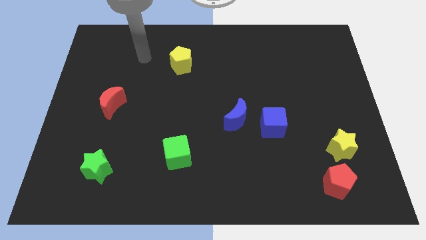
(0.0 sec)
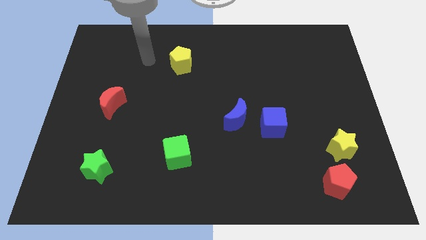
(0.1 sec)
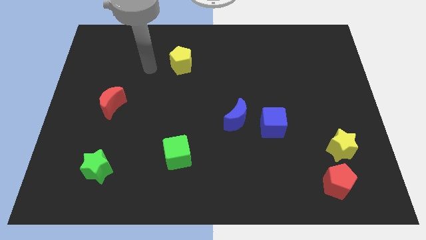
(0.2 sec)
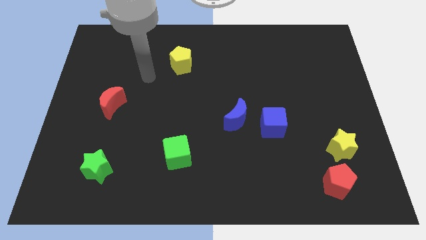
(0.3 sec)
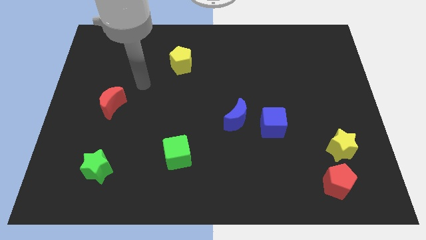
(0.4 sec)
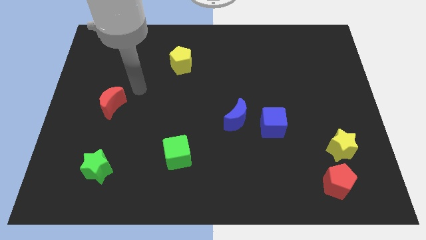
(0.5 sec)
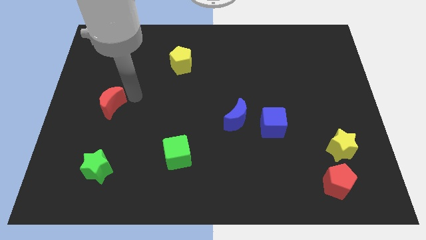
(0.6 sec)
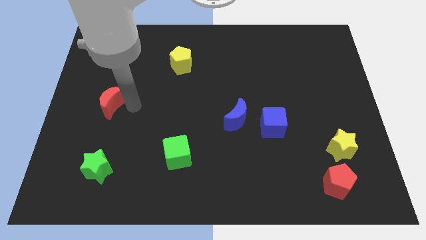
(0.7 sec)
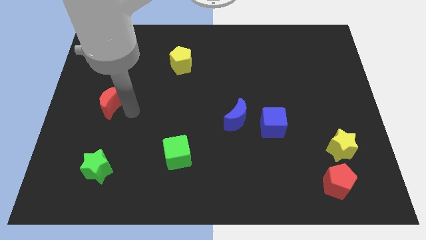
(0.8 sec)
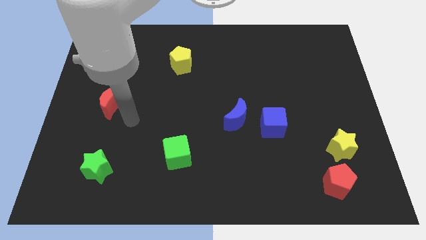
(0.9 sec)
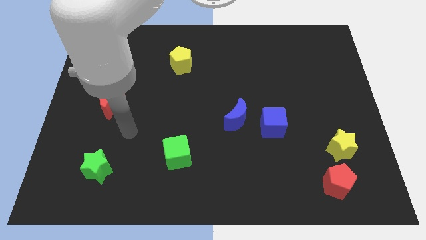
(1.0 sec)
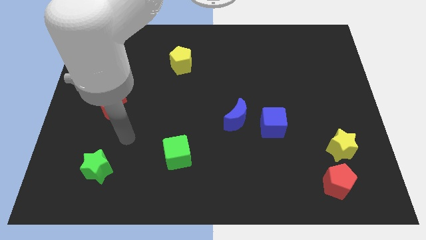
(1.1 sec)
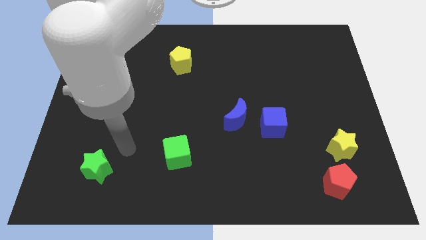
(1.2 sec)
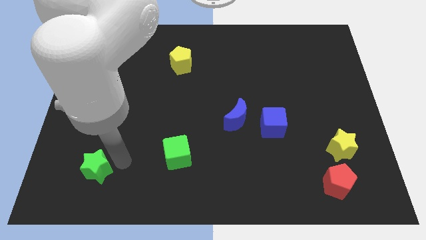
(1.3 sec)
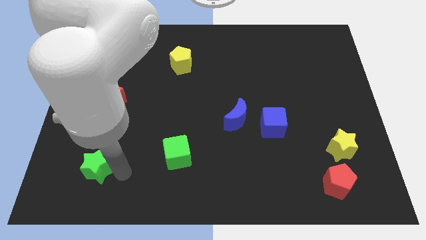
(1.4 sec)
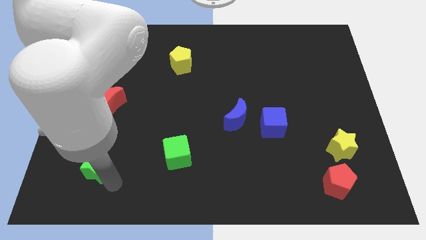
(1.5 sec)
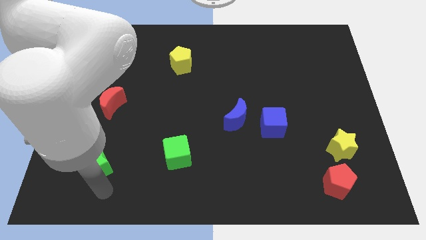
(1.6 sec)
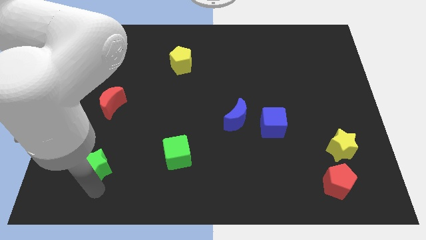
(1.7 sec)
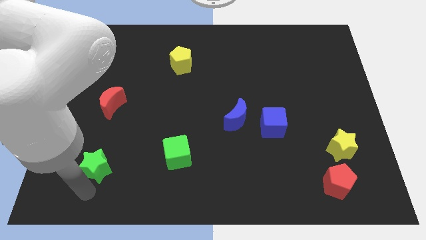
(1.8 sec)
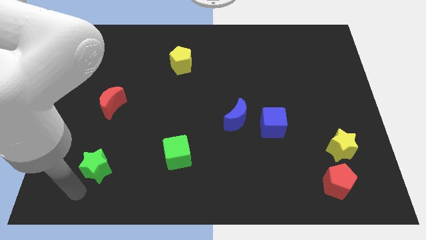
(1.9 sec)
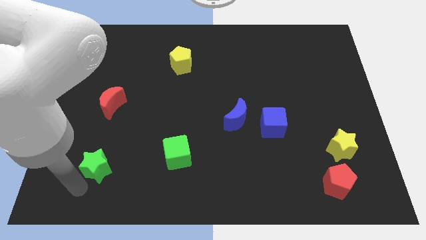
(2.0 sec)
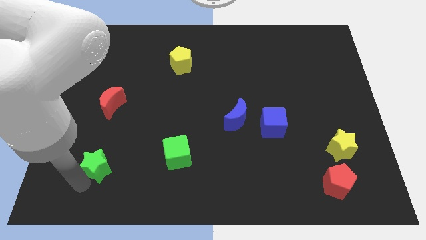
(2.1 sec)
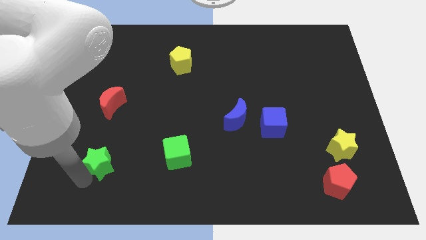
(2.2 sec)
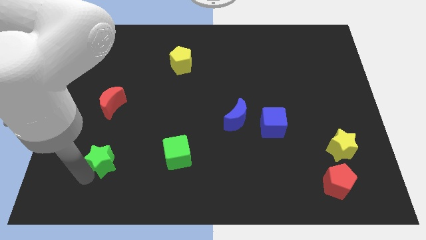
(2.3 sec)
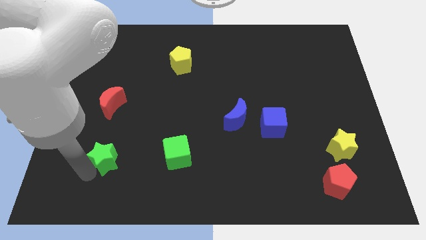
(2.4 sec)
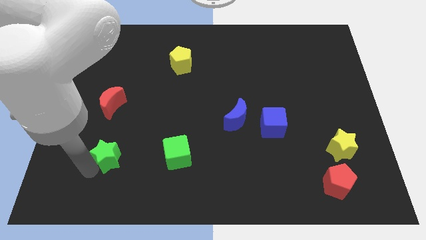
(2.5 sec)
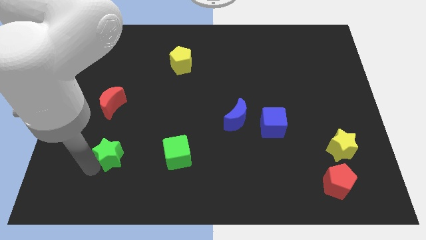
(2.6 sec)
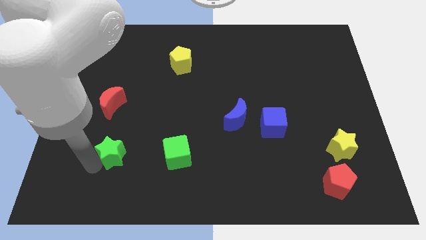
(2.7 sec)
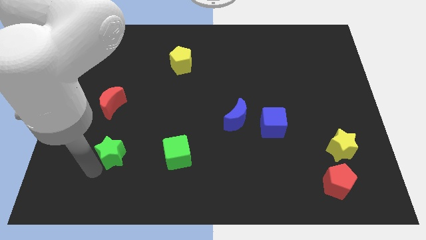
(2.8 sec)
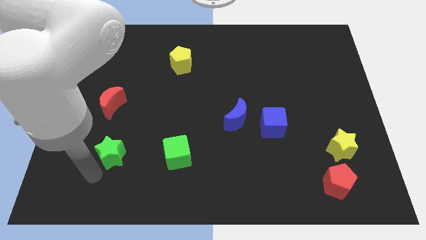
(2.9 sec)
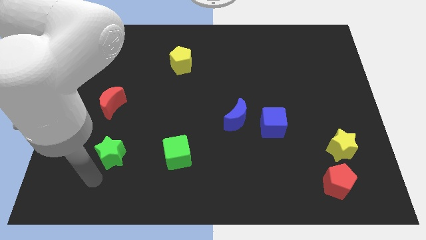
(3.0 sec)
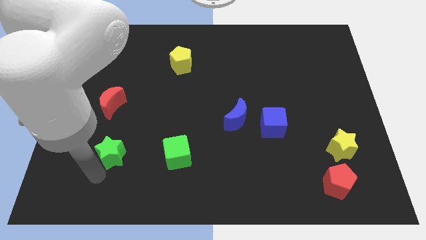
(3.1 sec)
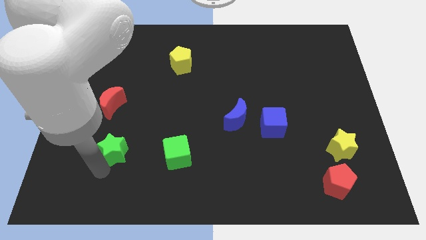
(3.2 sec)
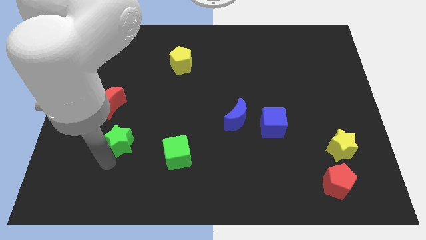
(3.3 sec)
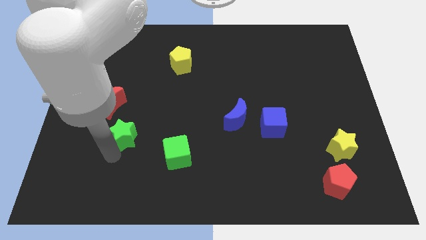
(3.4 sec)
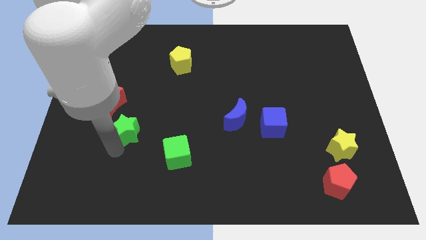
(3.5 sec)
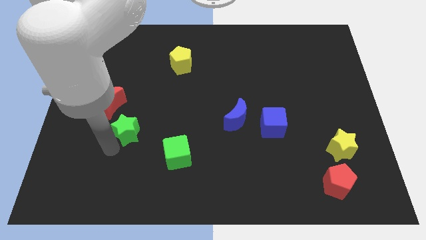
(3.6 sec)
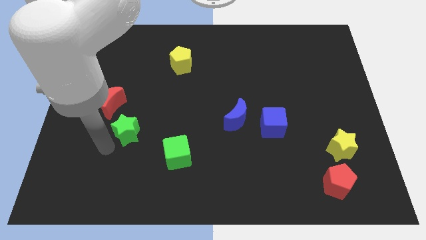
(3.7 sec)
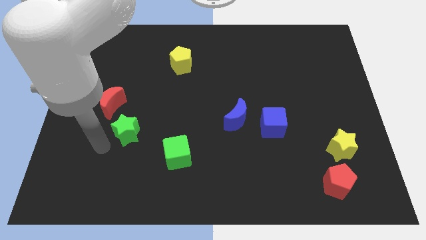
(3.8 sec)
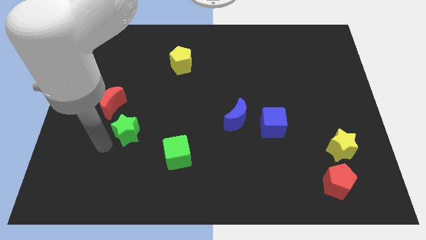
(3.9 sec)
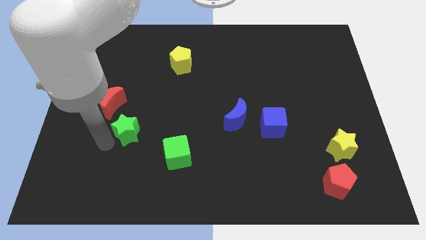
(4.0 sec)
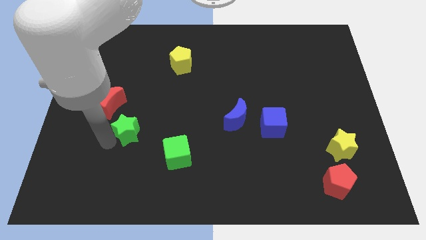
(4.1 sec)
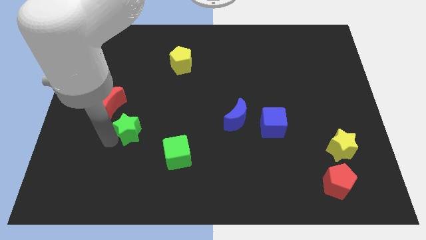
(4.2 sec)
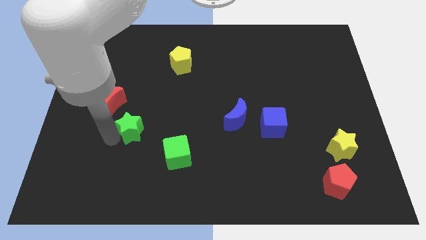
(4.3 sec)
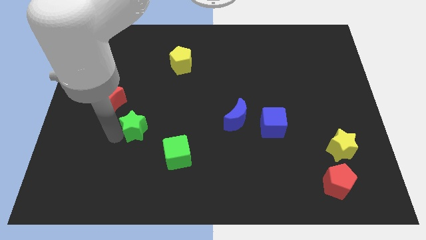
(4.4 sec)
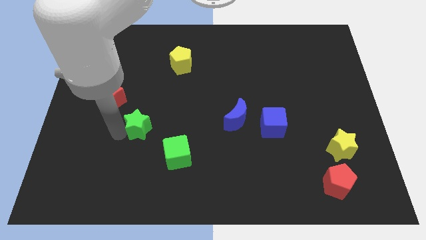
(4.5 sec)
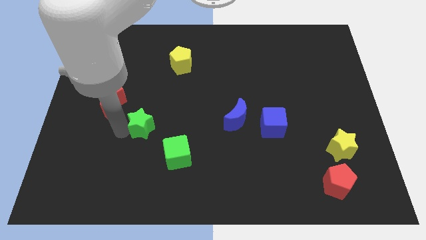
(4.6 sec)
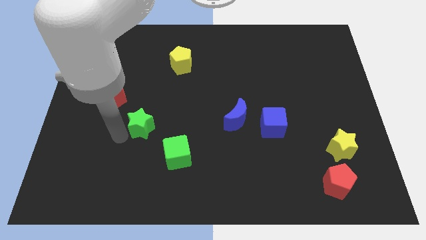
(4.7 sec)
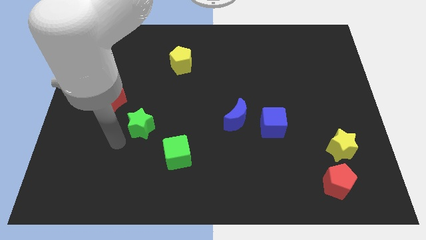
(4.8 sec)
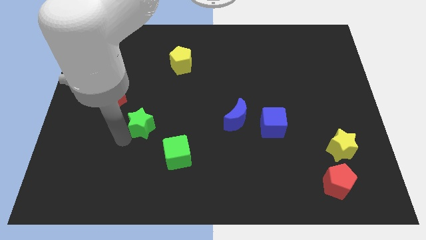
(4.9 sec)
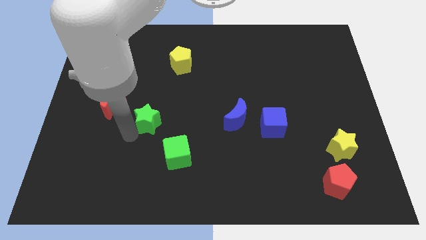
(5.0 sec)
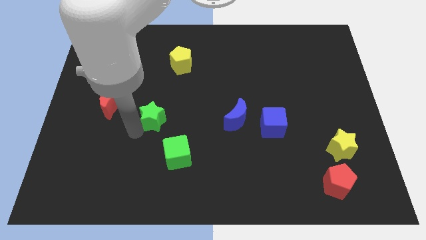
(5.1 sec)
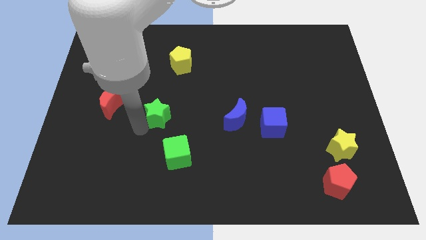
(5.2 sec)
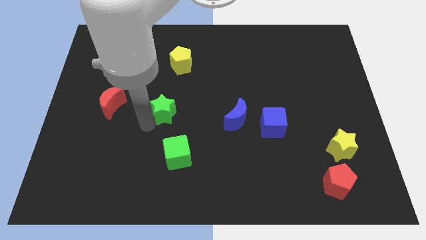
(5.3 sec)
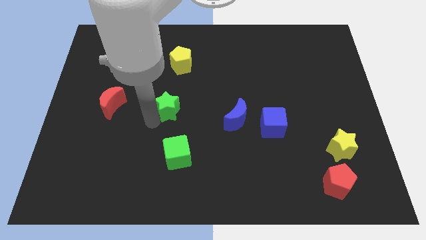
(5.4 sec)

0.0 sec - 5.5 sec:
push the green star up and to the right

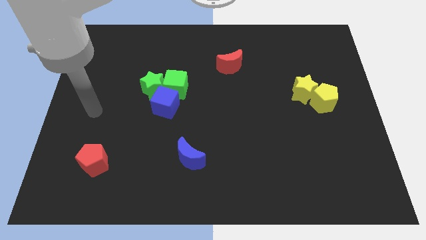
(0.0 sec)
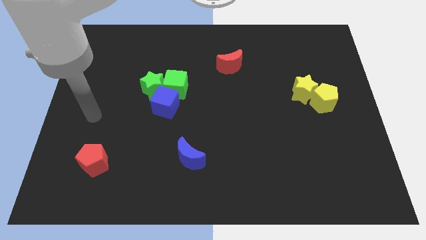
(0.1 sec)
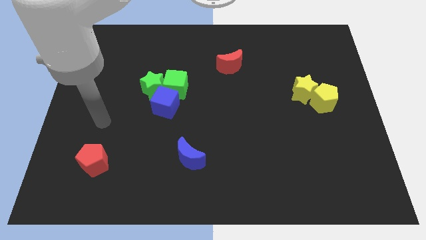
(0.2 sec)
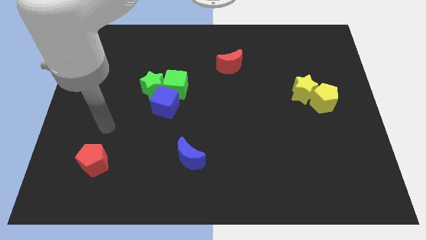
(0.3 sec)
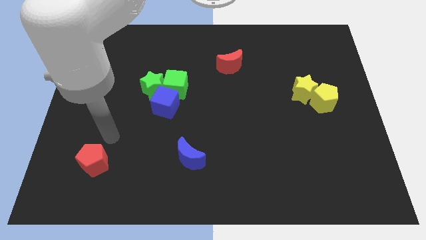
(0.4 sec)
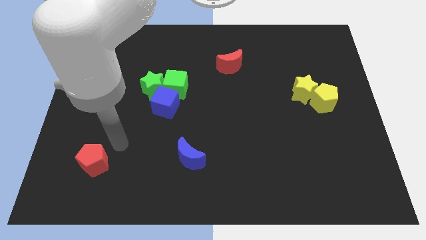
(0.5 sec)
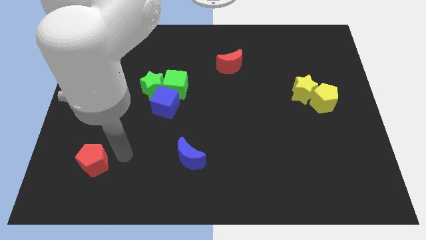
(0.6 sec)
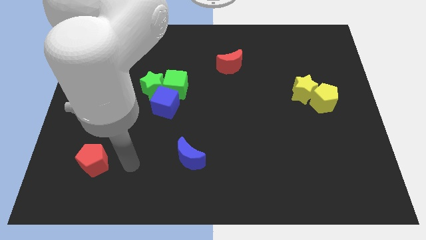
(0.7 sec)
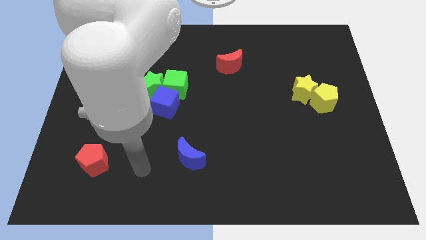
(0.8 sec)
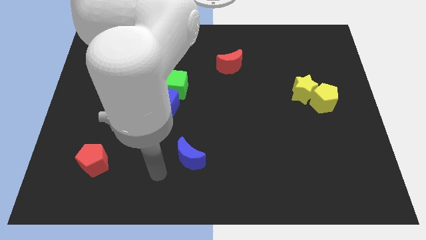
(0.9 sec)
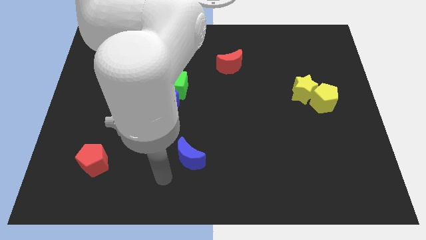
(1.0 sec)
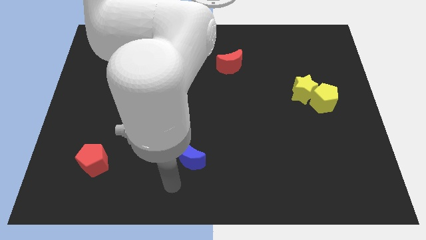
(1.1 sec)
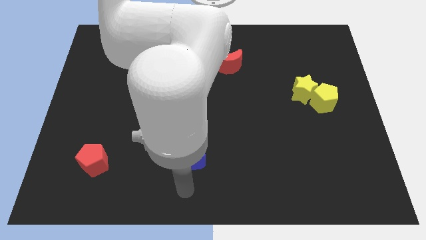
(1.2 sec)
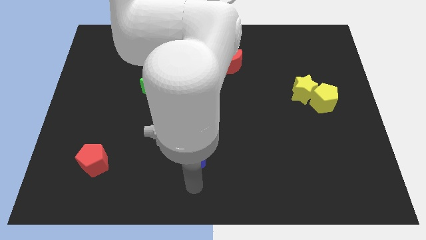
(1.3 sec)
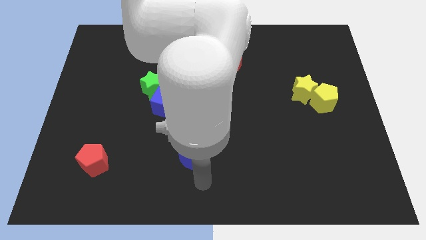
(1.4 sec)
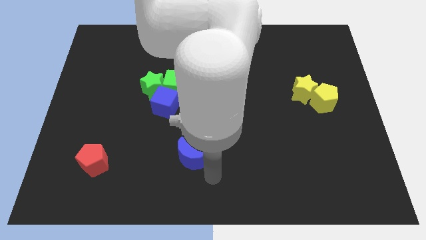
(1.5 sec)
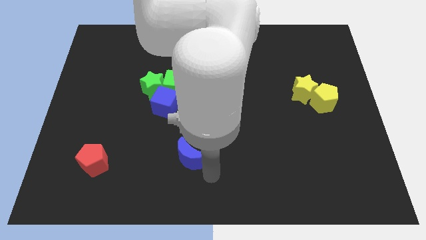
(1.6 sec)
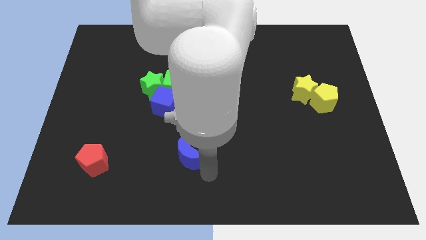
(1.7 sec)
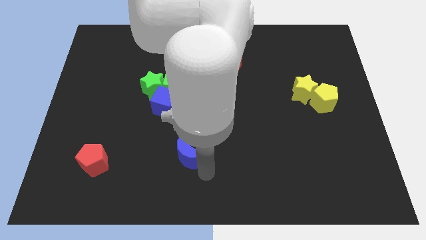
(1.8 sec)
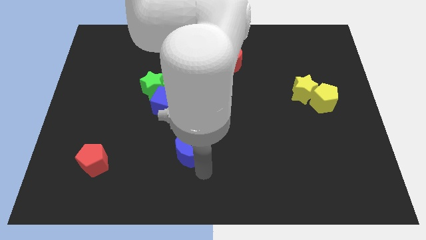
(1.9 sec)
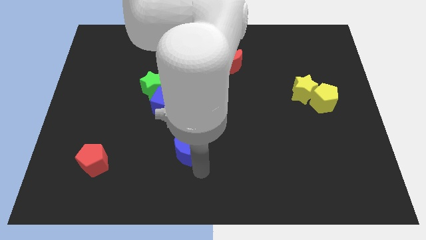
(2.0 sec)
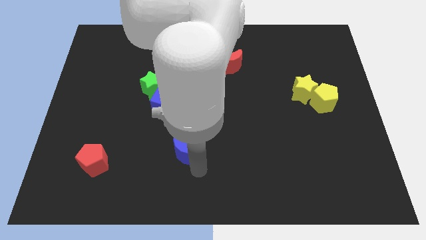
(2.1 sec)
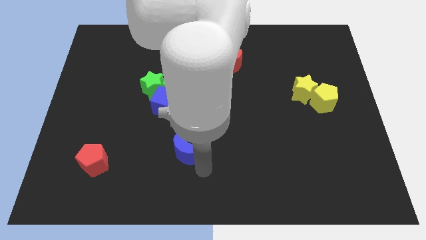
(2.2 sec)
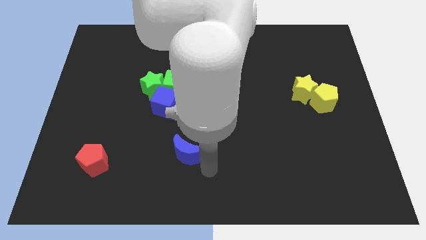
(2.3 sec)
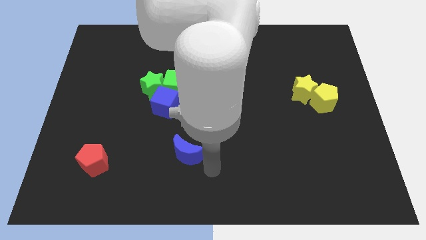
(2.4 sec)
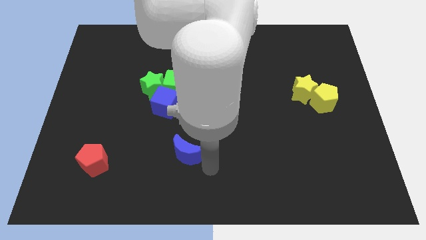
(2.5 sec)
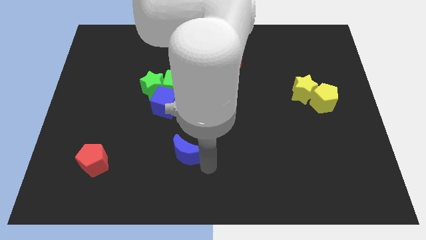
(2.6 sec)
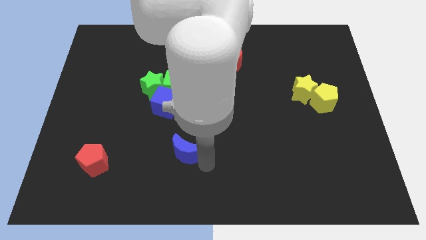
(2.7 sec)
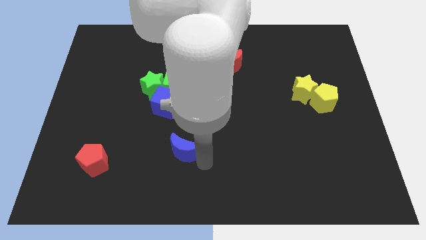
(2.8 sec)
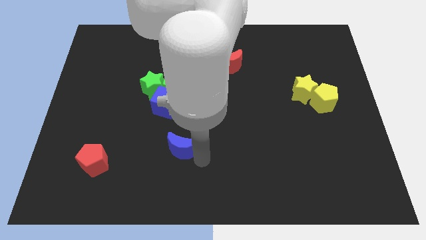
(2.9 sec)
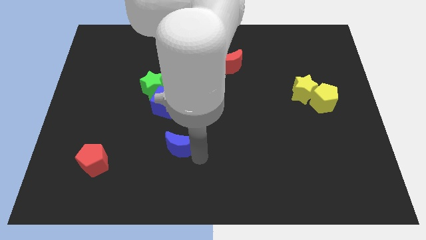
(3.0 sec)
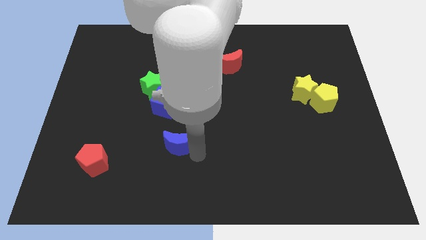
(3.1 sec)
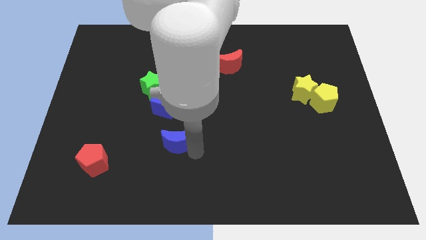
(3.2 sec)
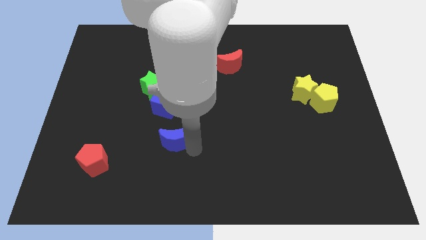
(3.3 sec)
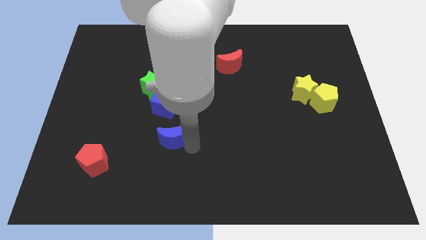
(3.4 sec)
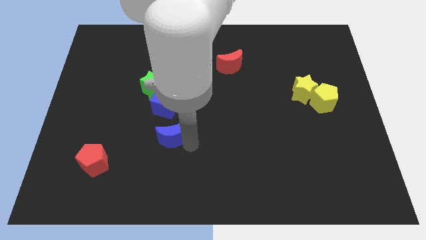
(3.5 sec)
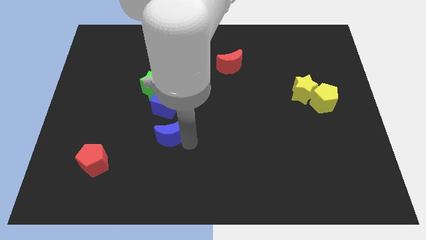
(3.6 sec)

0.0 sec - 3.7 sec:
slightly push the blue moon upwards and left diagonally
